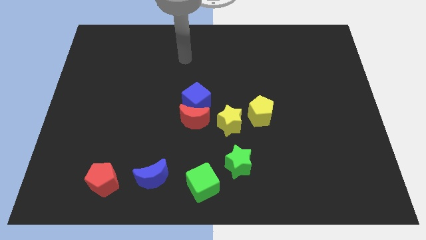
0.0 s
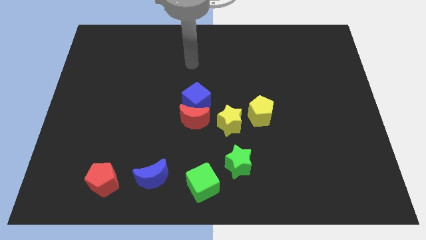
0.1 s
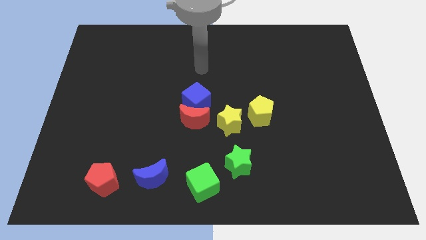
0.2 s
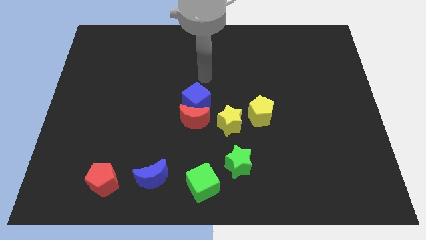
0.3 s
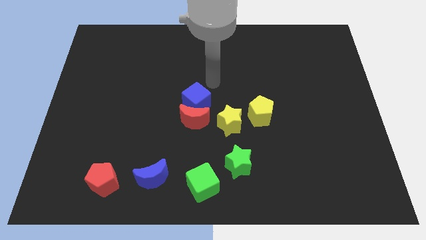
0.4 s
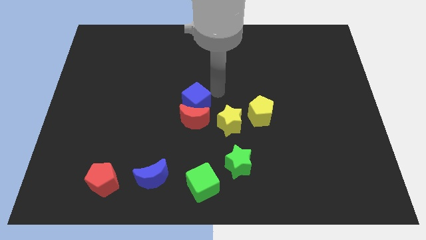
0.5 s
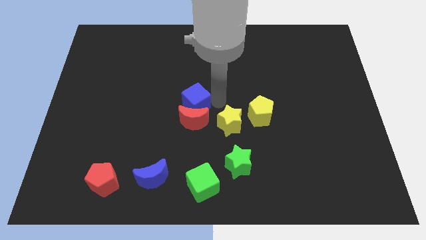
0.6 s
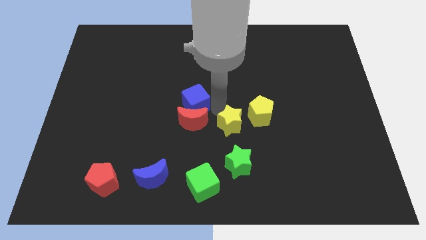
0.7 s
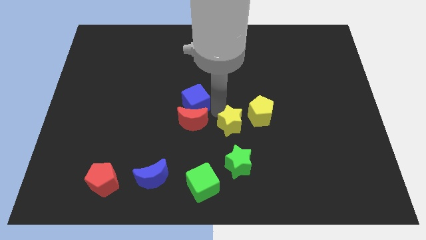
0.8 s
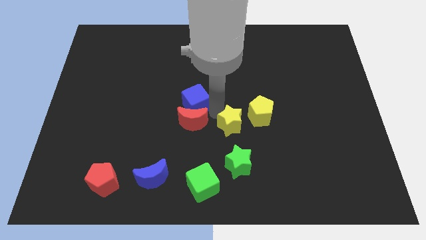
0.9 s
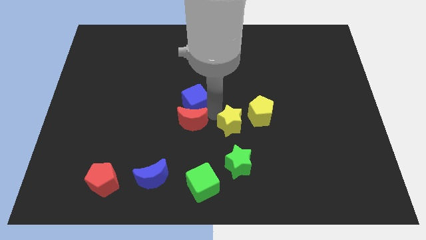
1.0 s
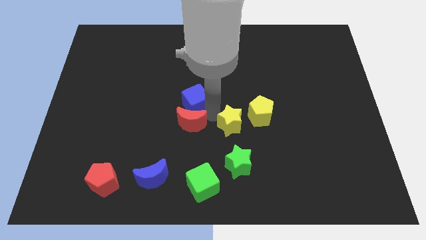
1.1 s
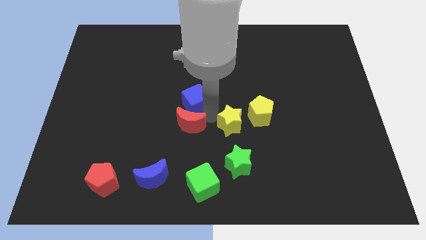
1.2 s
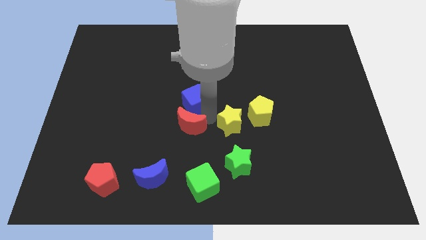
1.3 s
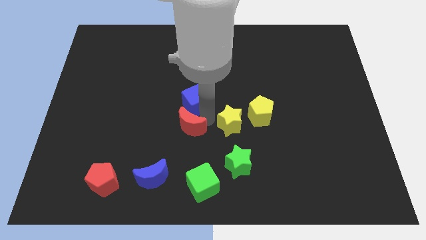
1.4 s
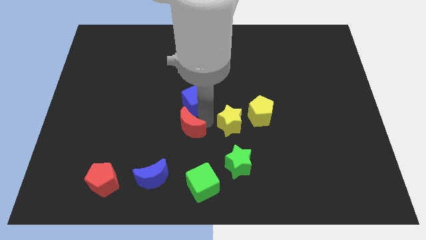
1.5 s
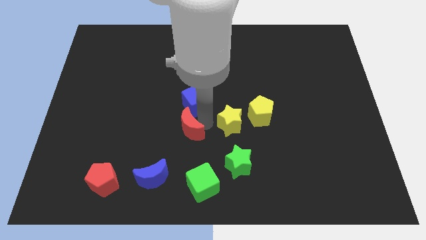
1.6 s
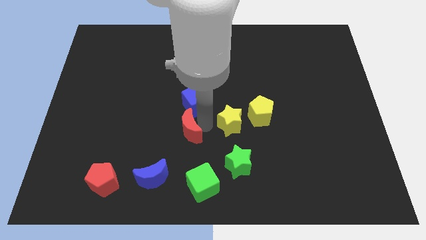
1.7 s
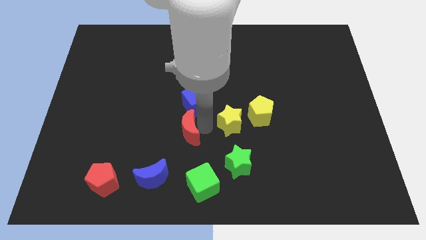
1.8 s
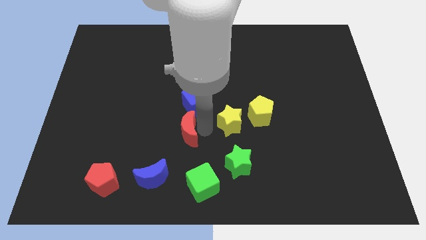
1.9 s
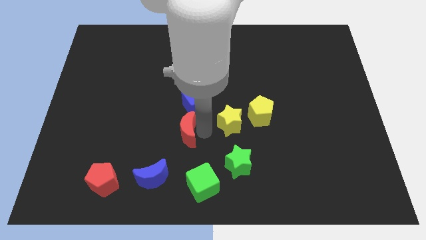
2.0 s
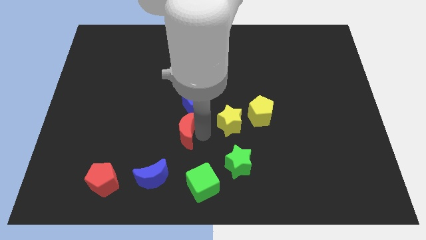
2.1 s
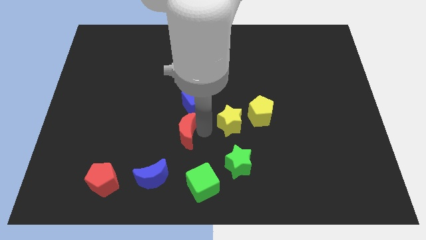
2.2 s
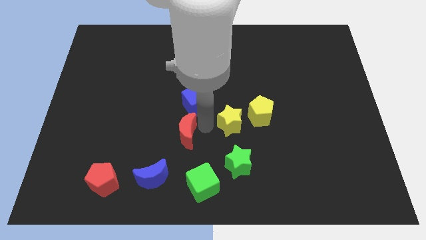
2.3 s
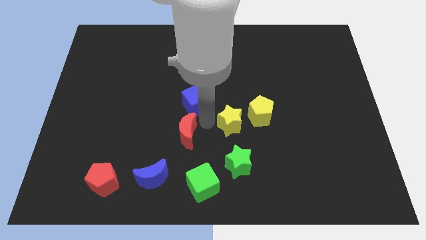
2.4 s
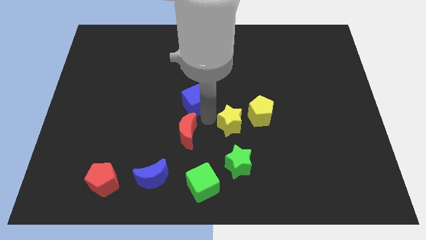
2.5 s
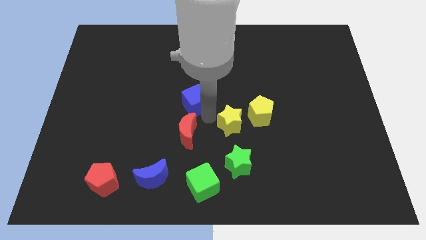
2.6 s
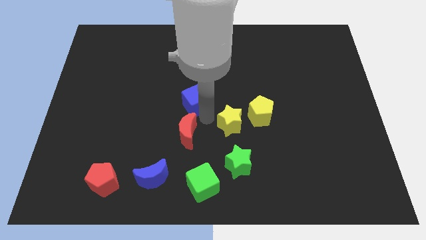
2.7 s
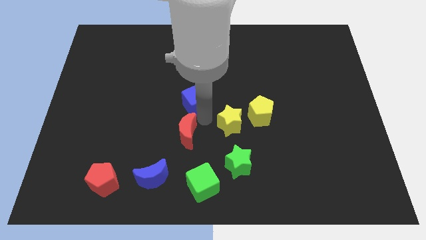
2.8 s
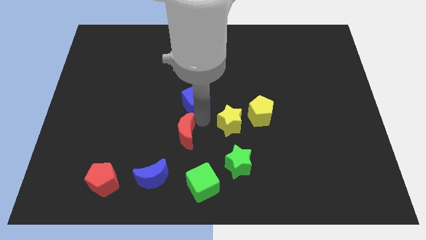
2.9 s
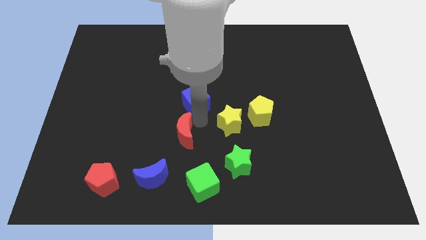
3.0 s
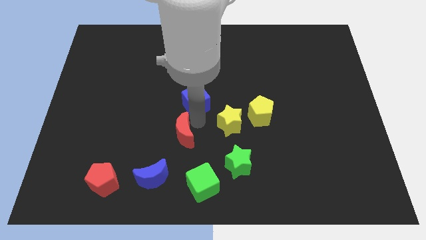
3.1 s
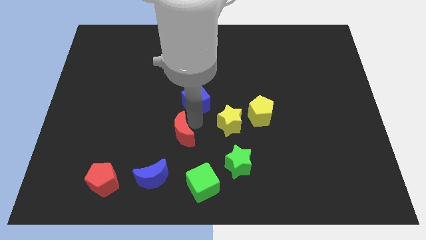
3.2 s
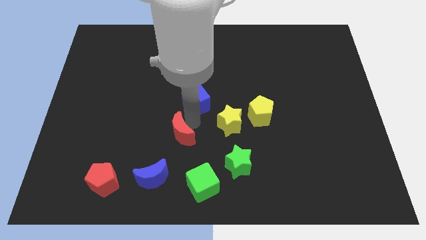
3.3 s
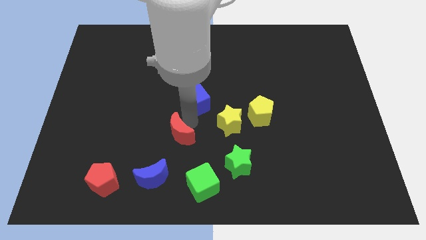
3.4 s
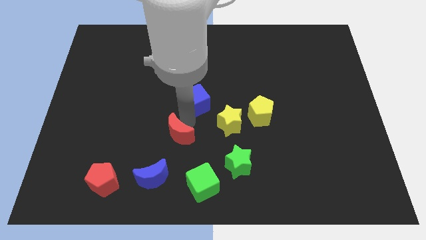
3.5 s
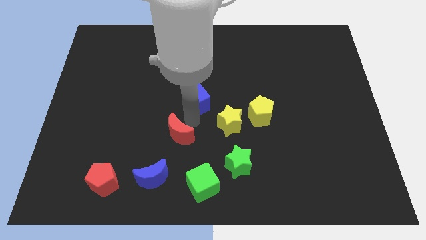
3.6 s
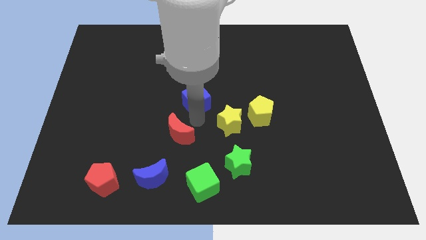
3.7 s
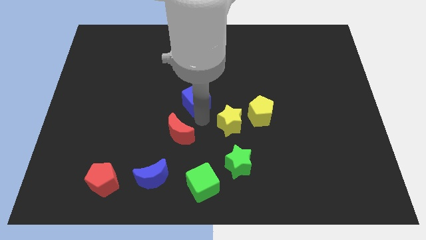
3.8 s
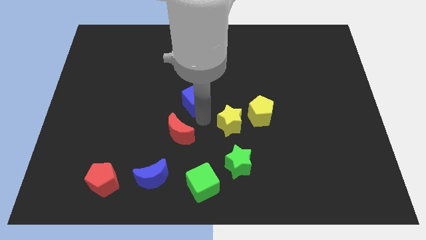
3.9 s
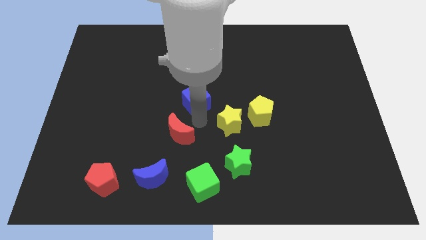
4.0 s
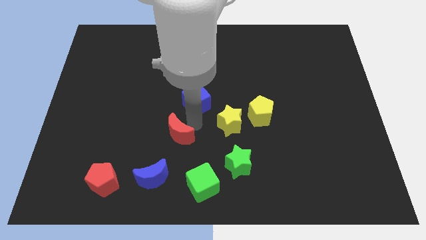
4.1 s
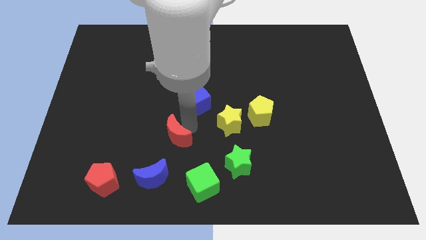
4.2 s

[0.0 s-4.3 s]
separate the red moon from the blue cube and yellow star

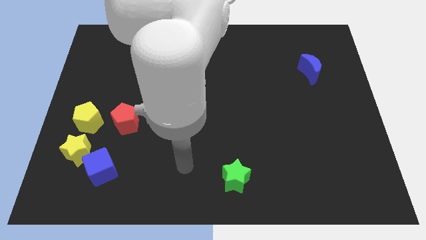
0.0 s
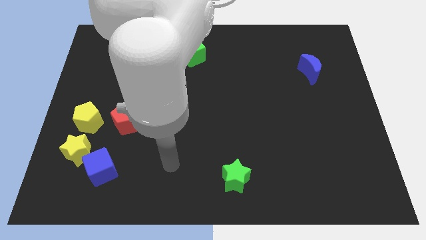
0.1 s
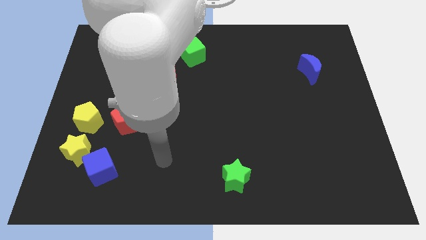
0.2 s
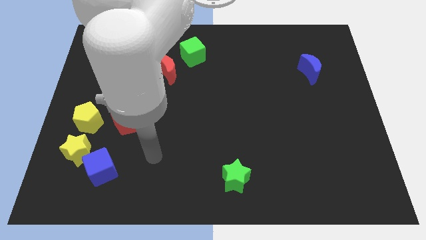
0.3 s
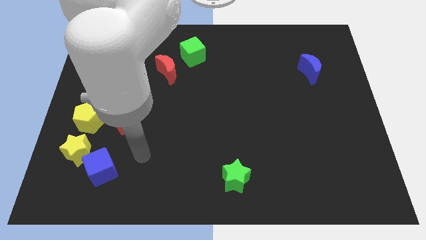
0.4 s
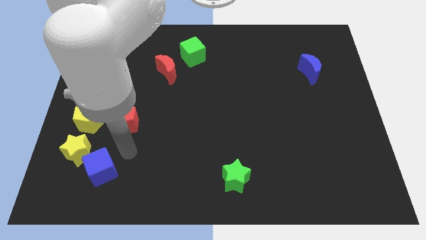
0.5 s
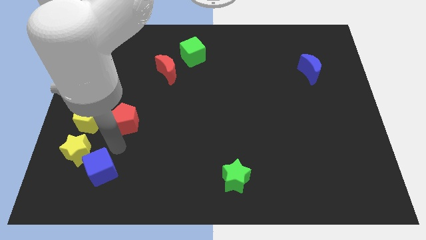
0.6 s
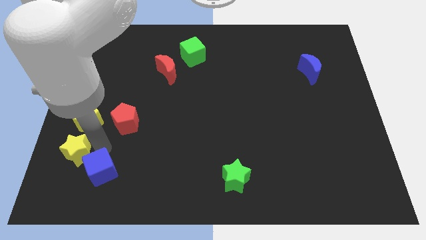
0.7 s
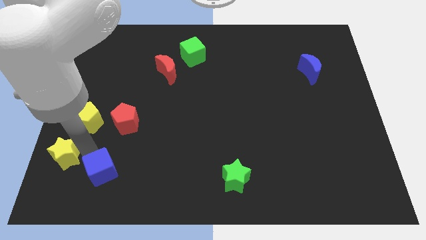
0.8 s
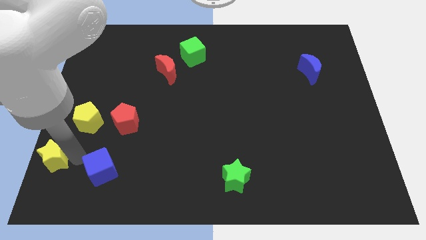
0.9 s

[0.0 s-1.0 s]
separate the blue cube from the yellow star

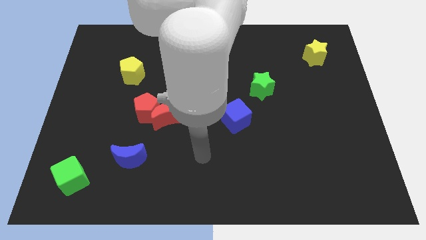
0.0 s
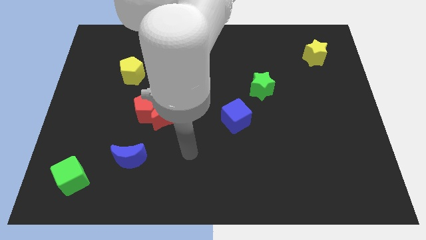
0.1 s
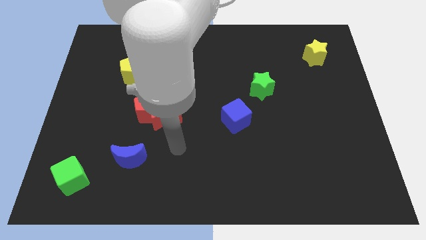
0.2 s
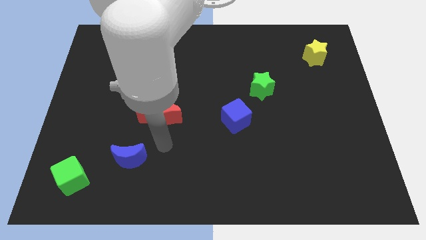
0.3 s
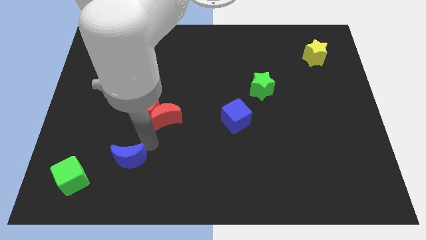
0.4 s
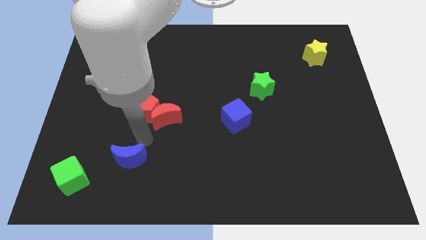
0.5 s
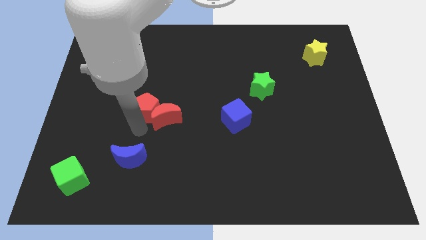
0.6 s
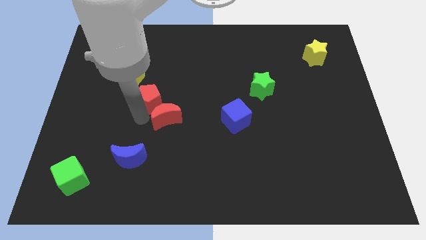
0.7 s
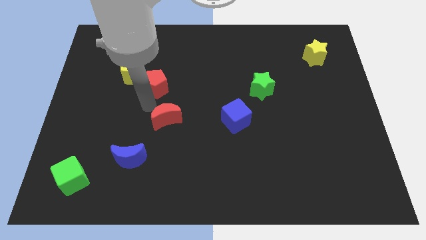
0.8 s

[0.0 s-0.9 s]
pull the red moon apart from the red pentagon

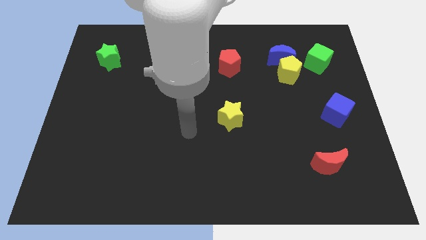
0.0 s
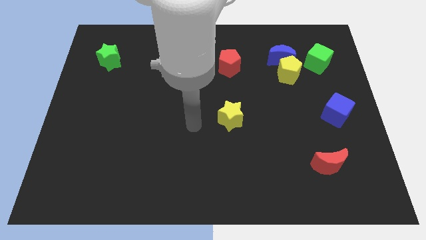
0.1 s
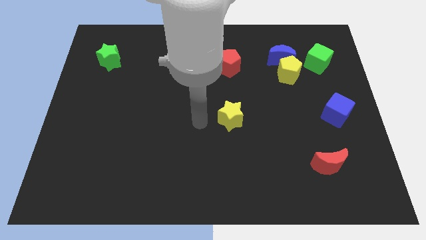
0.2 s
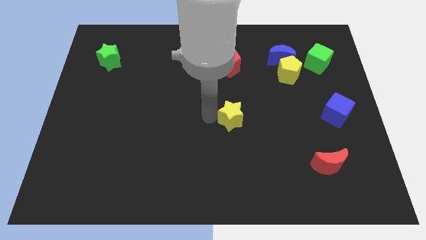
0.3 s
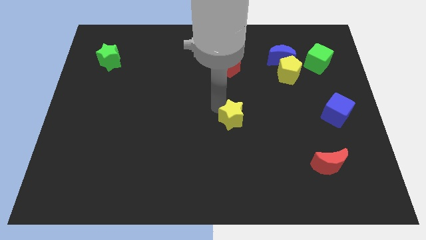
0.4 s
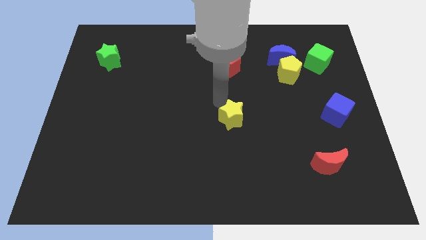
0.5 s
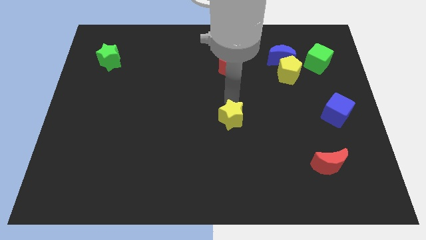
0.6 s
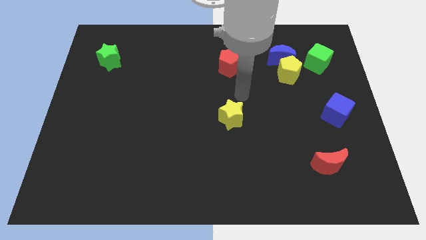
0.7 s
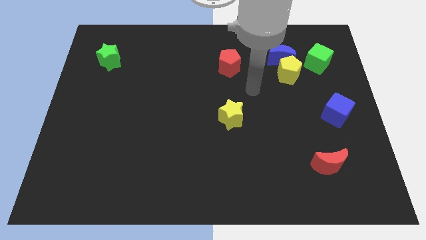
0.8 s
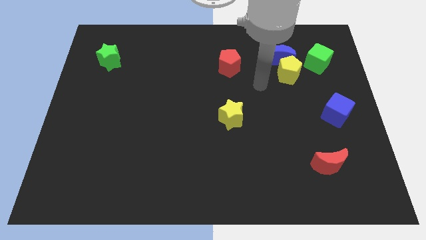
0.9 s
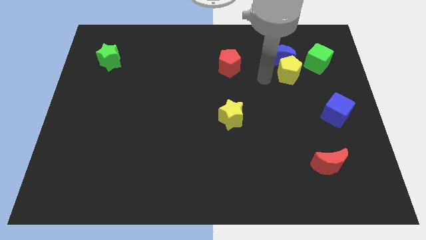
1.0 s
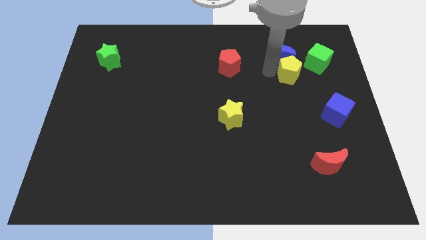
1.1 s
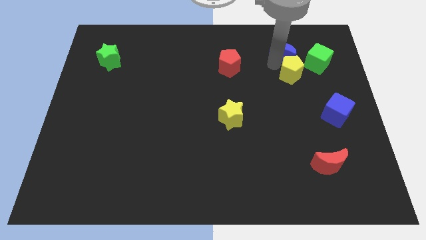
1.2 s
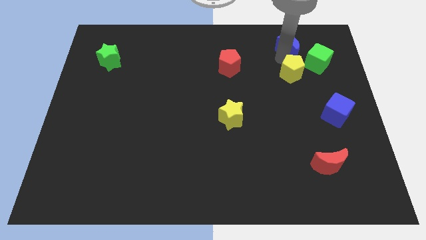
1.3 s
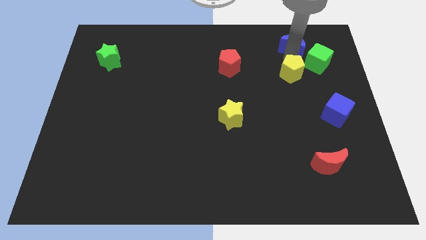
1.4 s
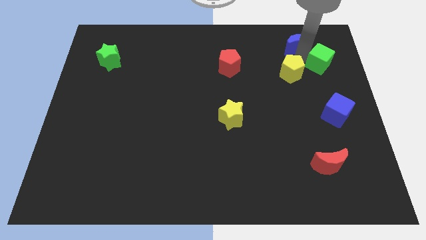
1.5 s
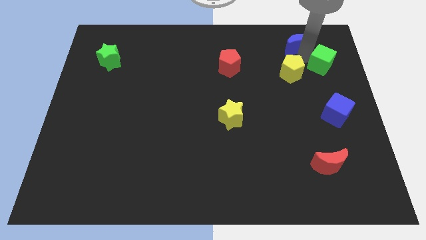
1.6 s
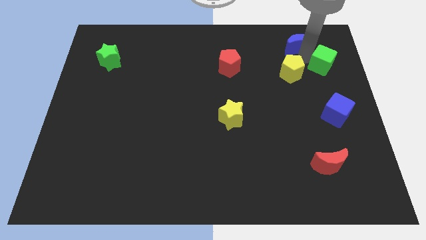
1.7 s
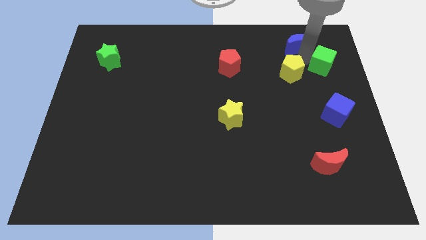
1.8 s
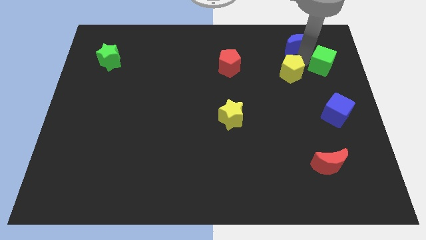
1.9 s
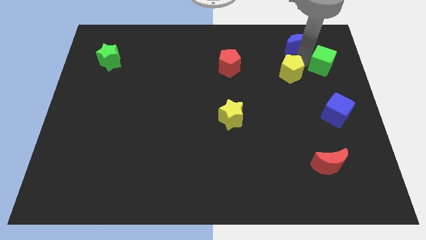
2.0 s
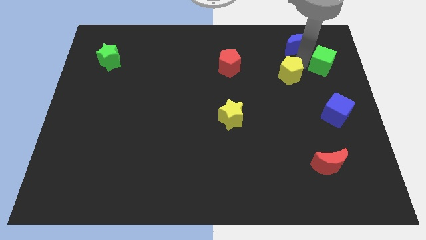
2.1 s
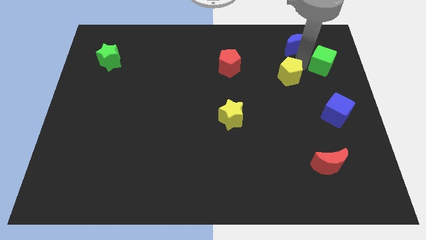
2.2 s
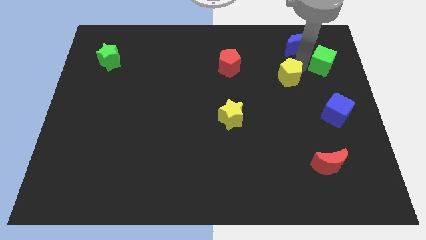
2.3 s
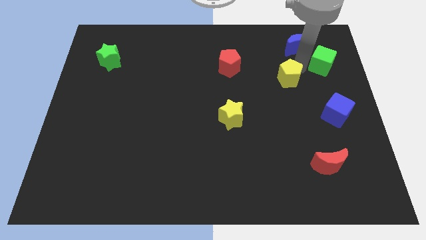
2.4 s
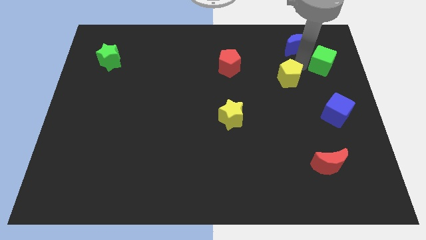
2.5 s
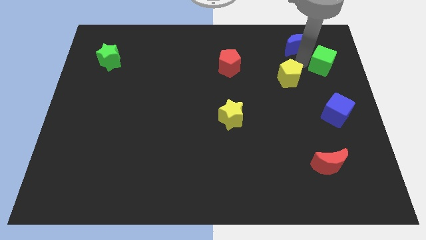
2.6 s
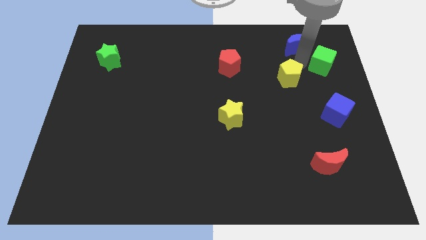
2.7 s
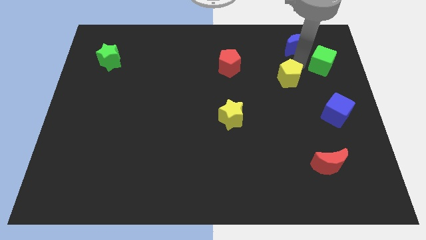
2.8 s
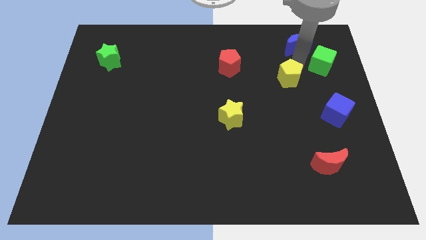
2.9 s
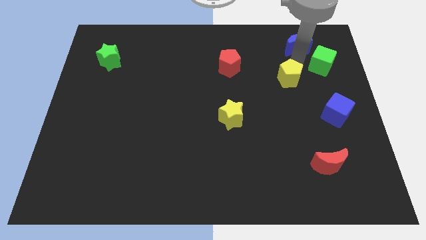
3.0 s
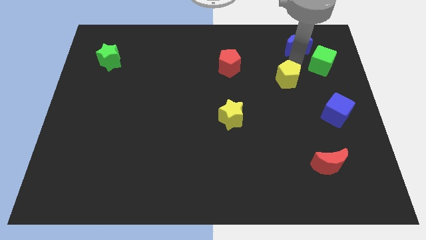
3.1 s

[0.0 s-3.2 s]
pull the yellow pentagon apart from the blue moon and green cube
